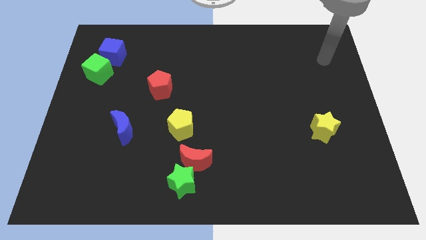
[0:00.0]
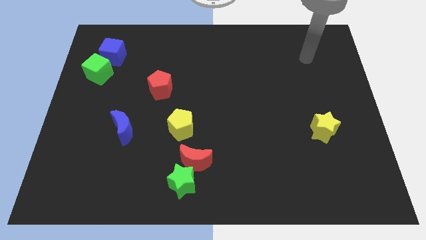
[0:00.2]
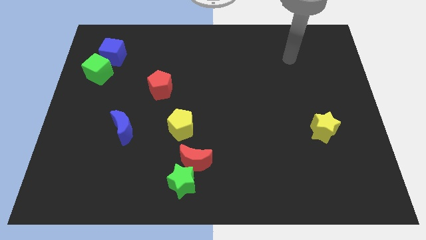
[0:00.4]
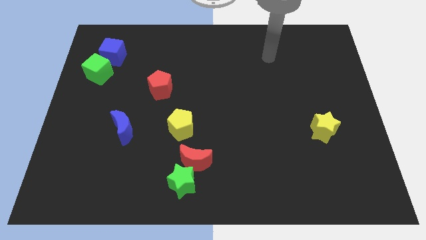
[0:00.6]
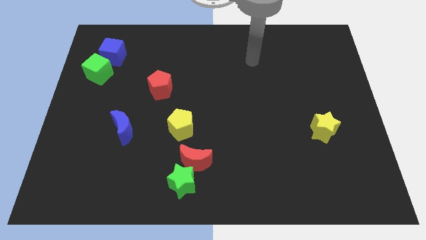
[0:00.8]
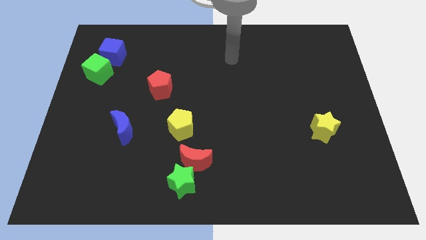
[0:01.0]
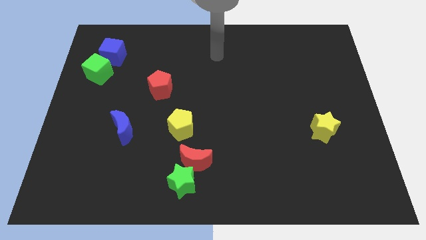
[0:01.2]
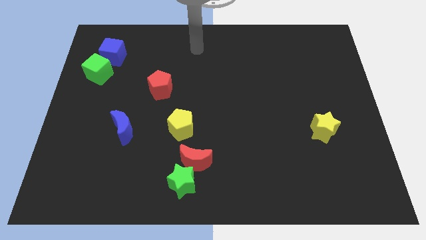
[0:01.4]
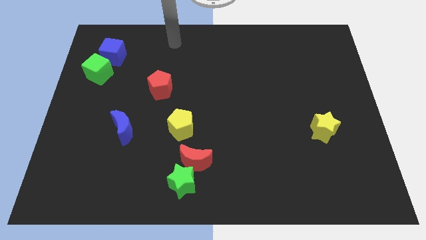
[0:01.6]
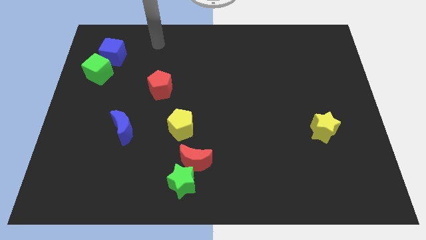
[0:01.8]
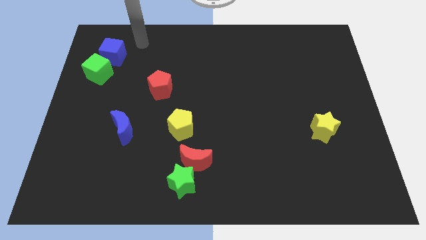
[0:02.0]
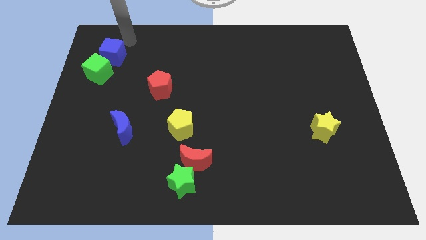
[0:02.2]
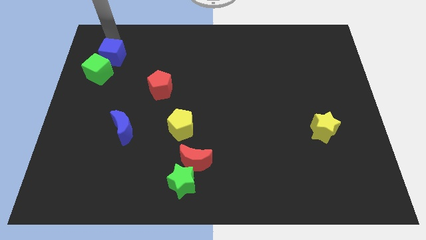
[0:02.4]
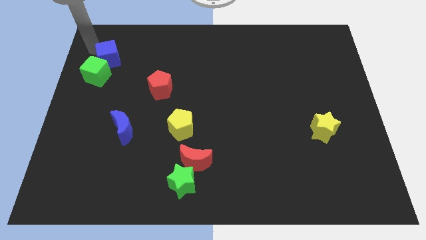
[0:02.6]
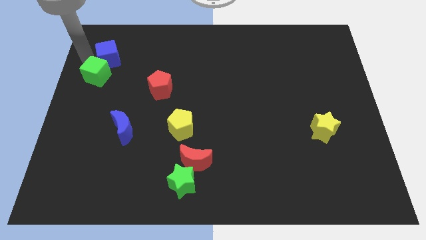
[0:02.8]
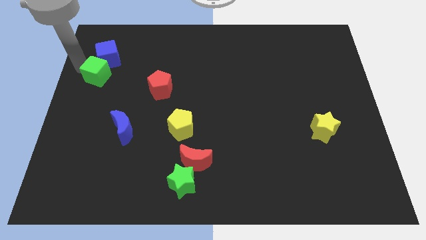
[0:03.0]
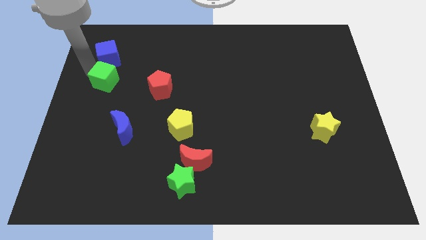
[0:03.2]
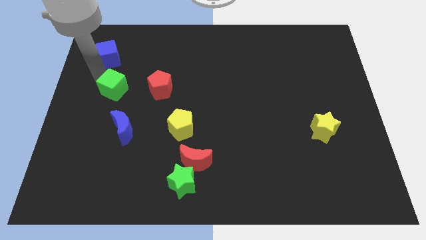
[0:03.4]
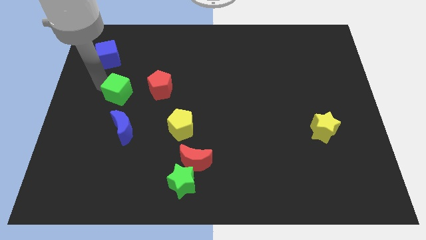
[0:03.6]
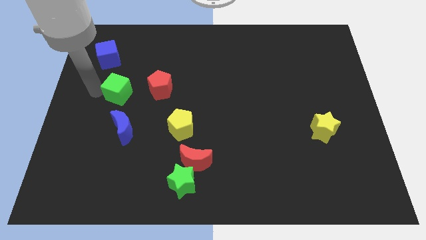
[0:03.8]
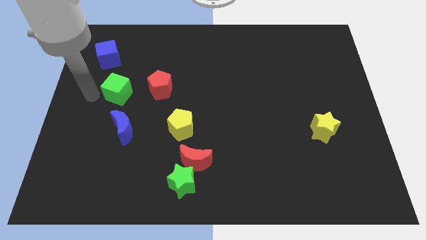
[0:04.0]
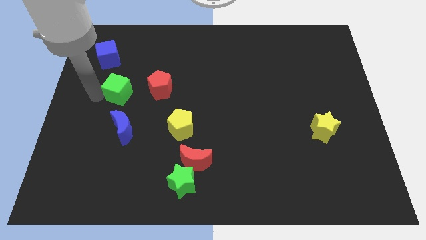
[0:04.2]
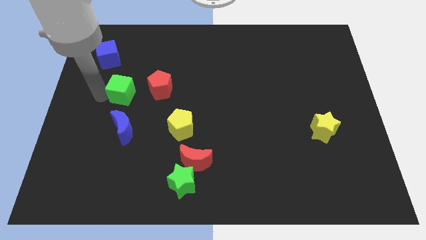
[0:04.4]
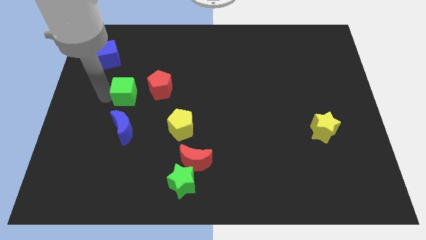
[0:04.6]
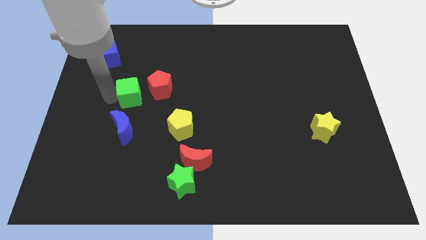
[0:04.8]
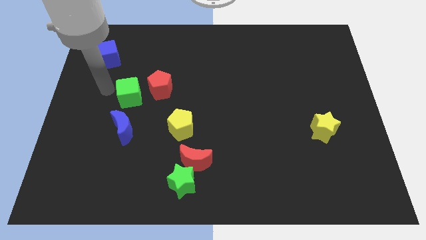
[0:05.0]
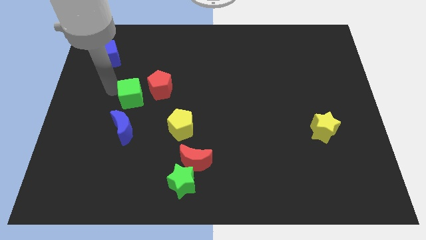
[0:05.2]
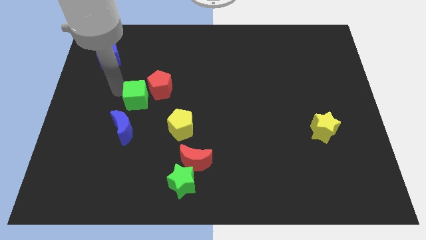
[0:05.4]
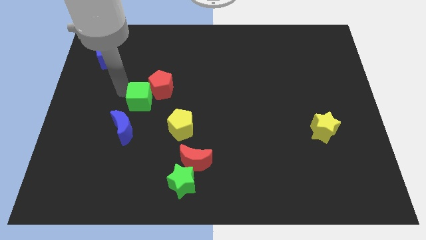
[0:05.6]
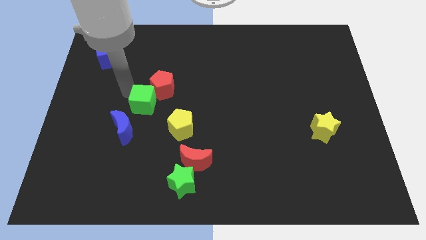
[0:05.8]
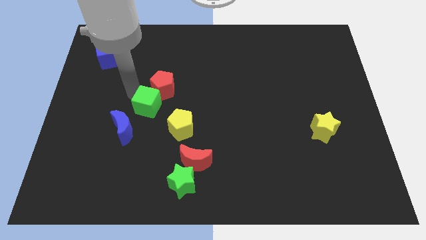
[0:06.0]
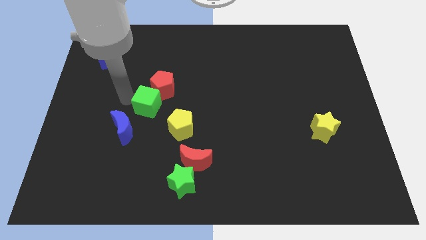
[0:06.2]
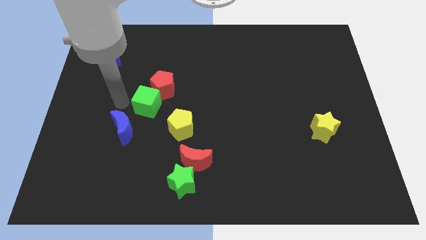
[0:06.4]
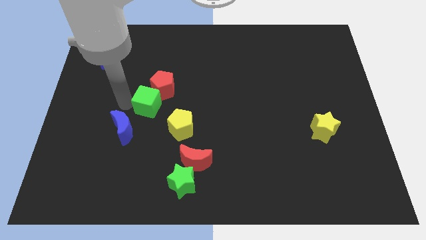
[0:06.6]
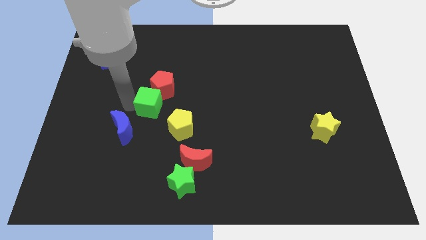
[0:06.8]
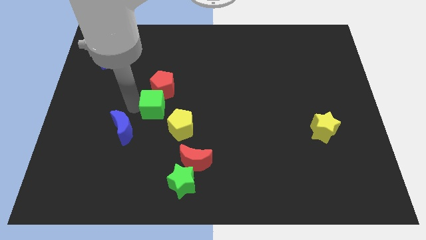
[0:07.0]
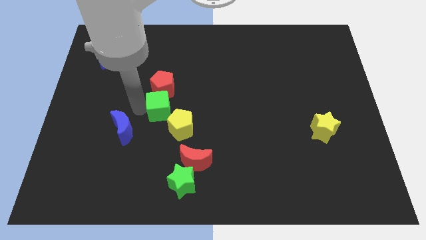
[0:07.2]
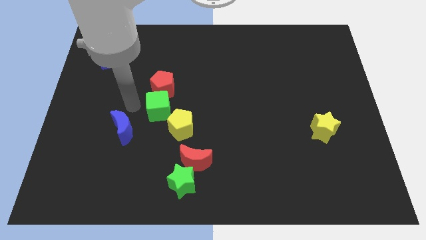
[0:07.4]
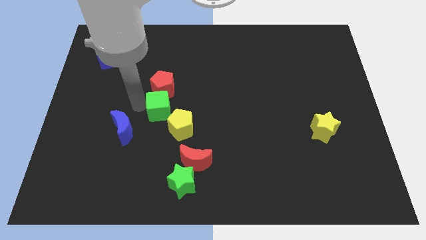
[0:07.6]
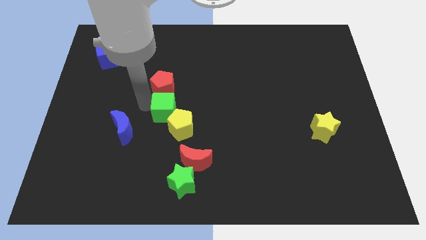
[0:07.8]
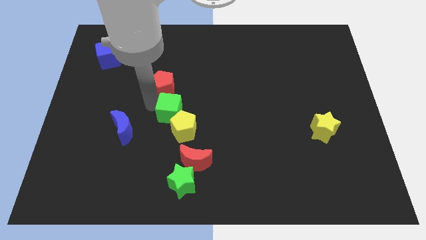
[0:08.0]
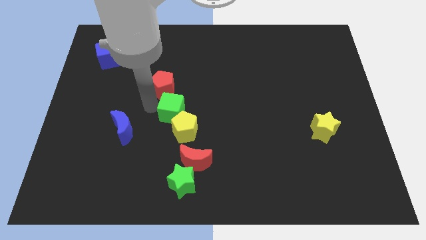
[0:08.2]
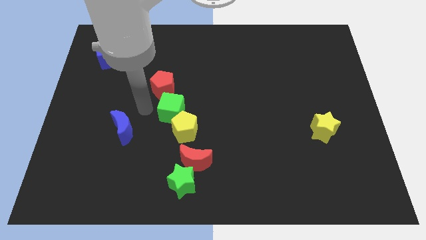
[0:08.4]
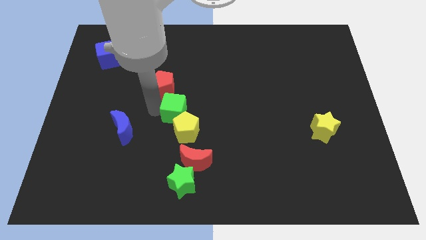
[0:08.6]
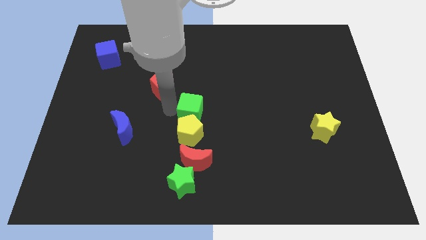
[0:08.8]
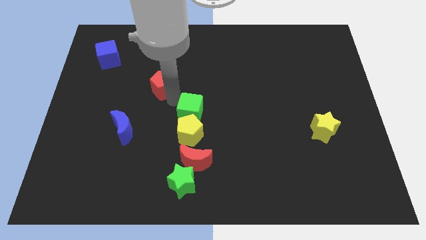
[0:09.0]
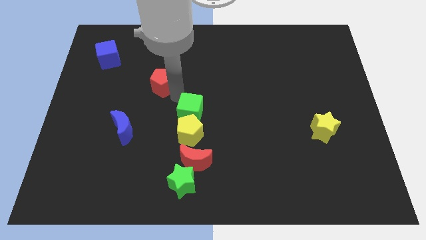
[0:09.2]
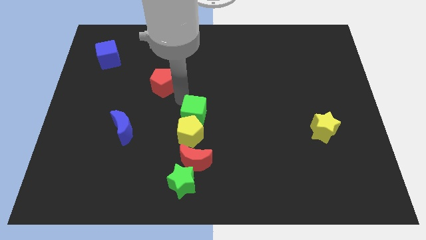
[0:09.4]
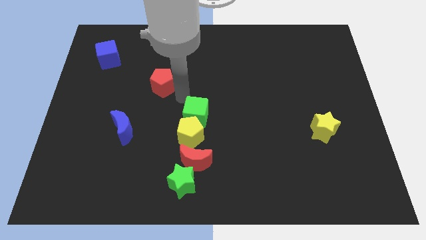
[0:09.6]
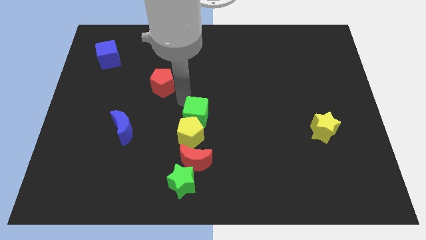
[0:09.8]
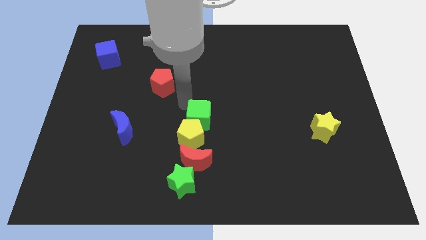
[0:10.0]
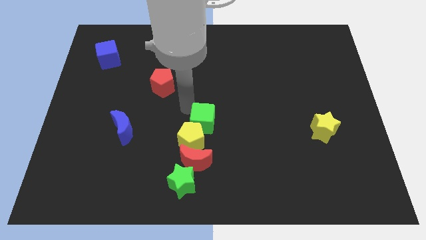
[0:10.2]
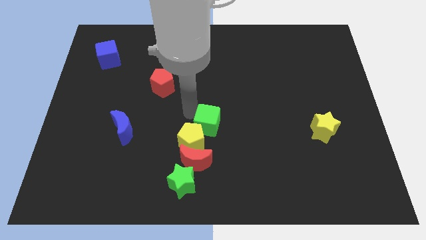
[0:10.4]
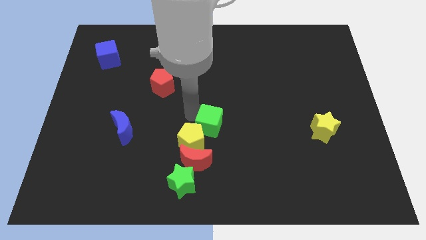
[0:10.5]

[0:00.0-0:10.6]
push the green cube to the top right side of the red moon

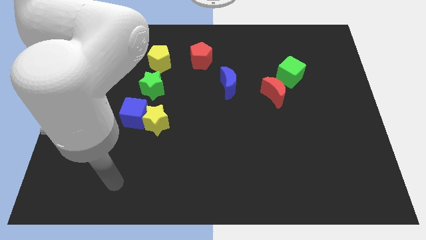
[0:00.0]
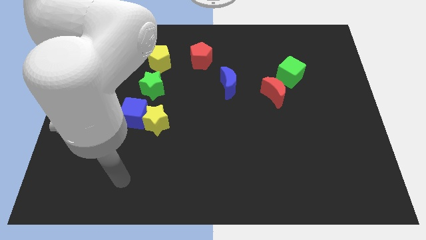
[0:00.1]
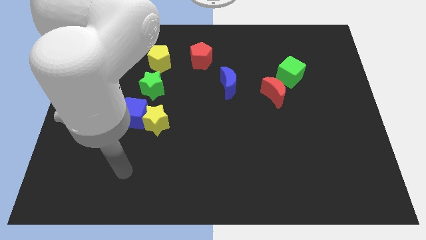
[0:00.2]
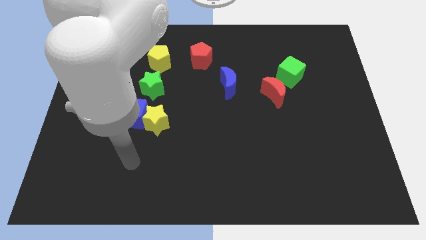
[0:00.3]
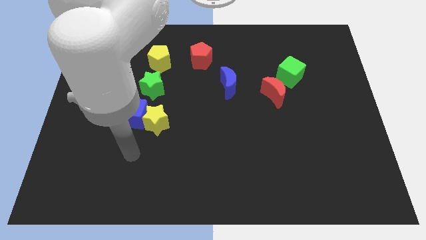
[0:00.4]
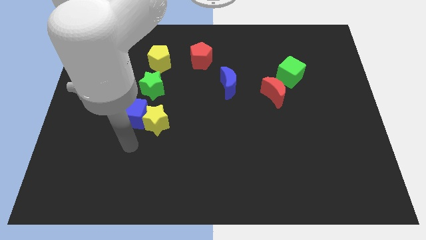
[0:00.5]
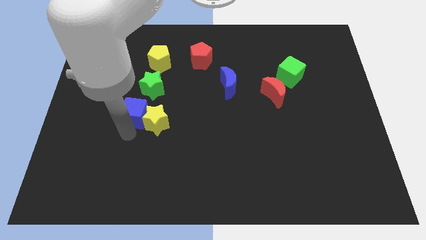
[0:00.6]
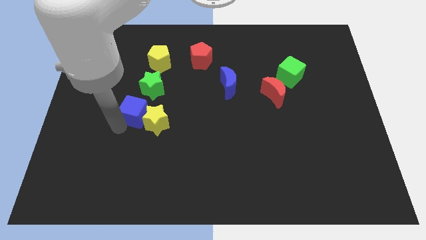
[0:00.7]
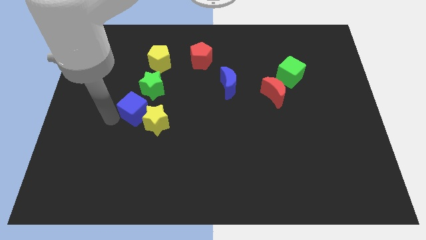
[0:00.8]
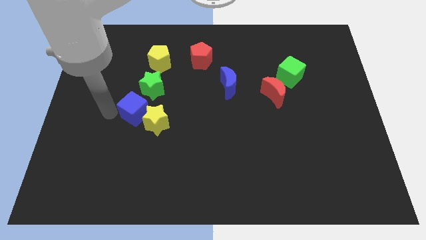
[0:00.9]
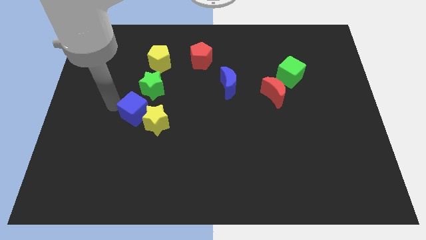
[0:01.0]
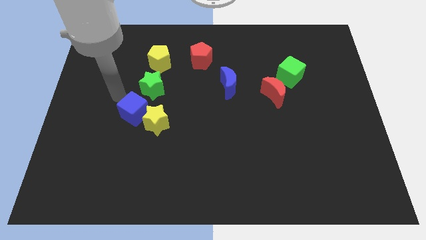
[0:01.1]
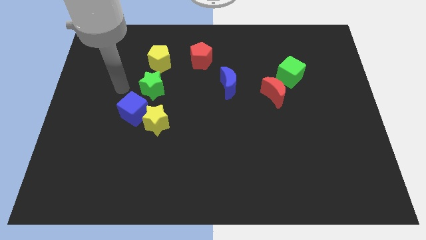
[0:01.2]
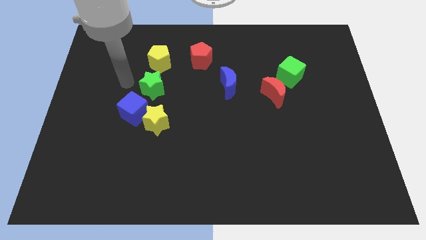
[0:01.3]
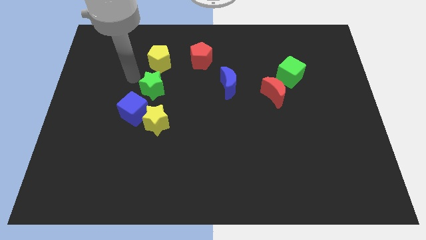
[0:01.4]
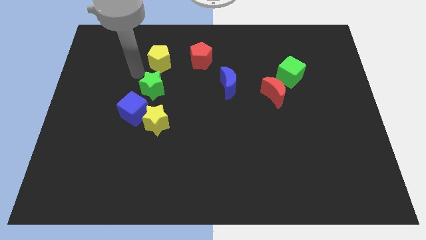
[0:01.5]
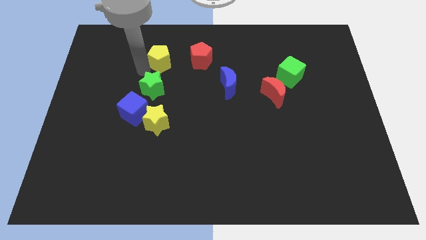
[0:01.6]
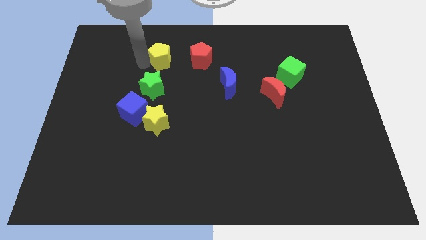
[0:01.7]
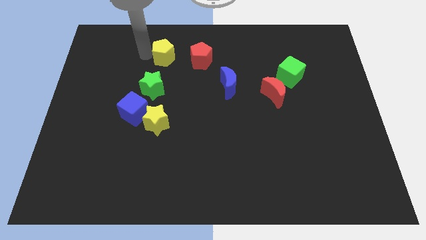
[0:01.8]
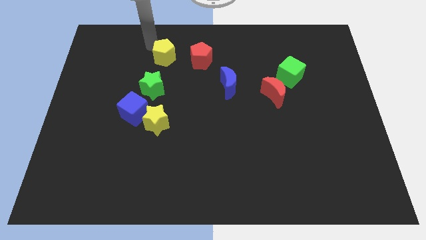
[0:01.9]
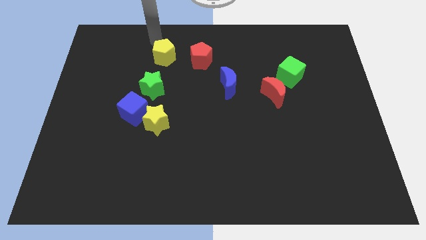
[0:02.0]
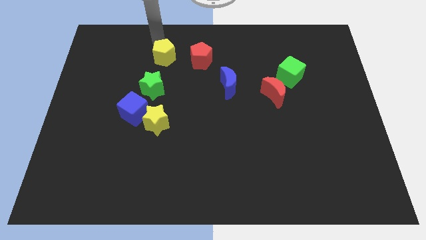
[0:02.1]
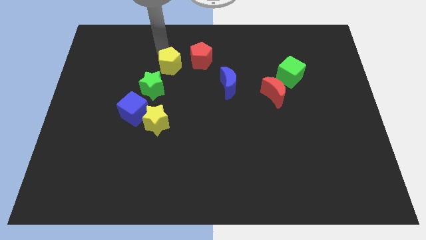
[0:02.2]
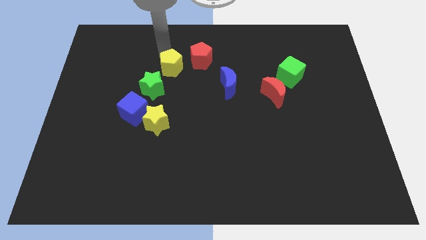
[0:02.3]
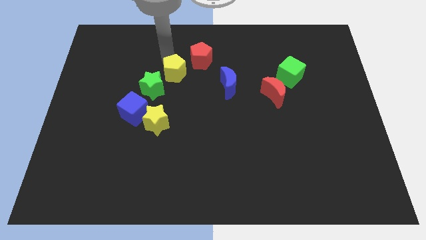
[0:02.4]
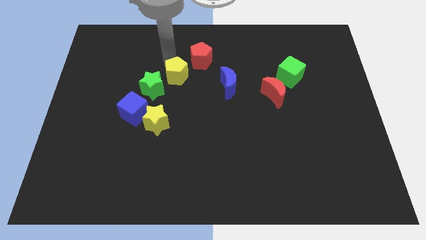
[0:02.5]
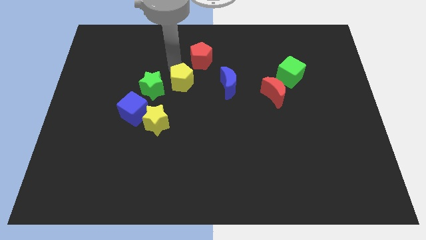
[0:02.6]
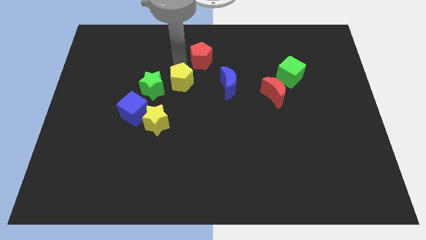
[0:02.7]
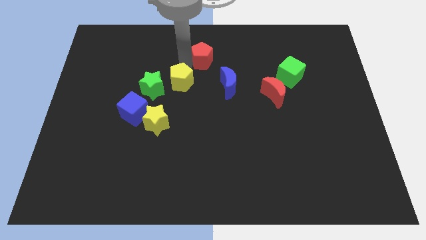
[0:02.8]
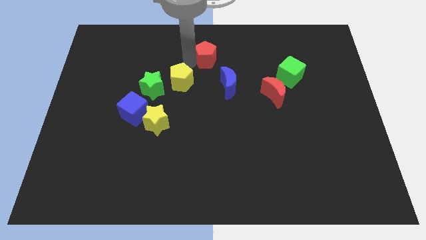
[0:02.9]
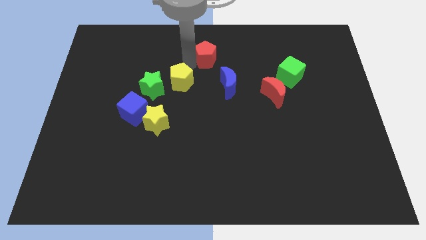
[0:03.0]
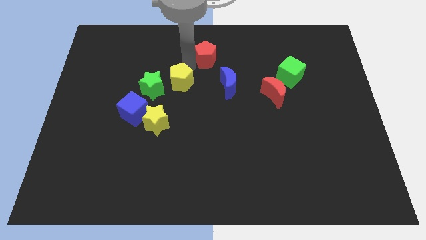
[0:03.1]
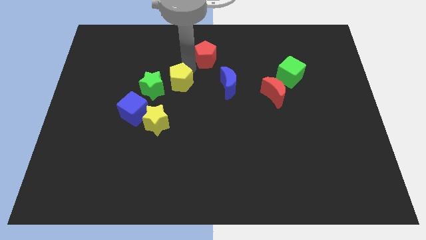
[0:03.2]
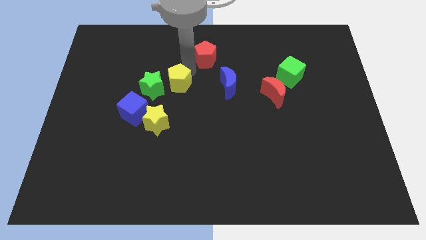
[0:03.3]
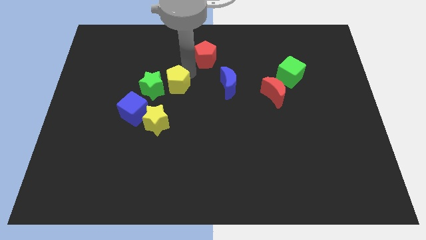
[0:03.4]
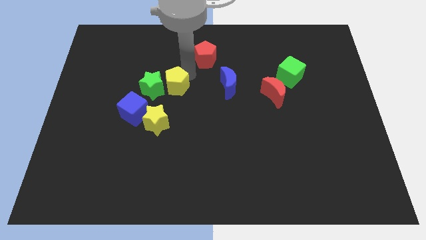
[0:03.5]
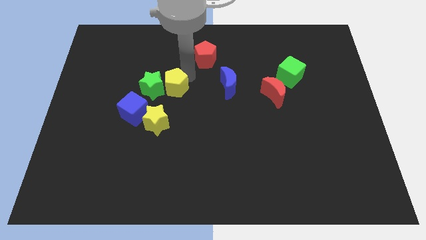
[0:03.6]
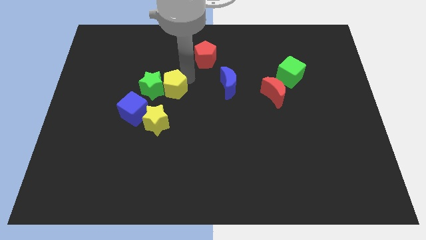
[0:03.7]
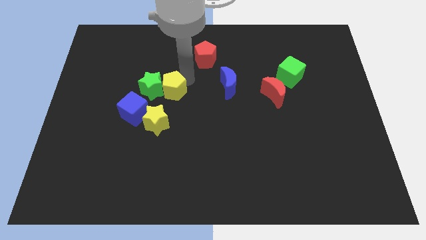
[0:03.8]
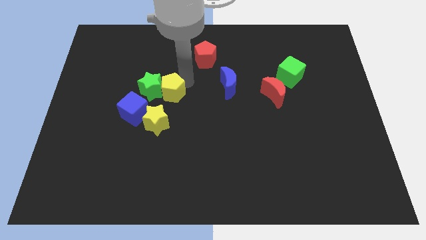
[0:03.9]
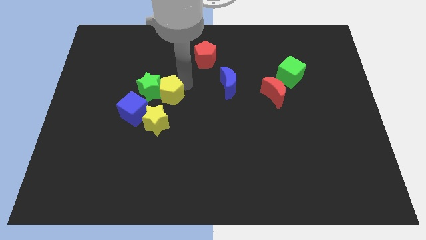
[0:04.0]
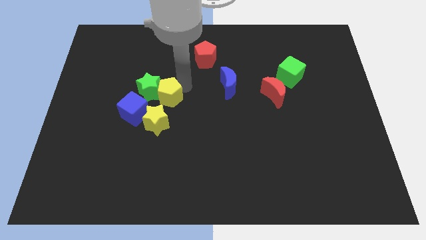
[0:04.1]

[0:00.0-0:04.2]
move the yellow pentagon right of the blue cube
